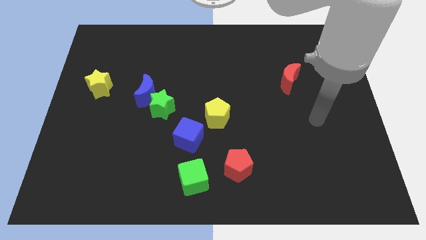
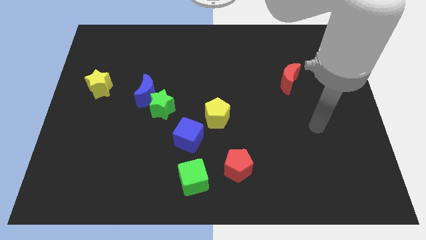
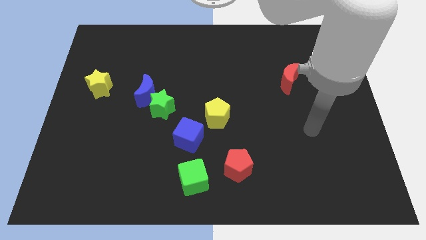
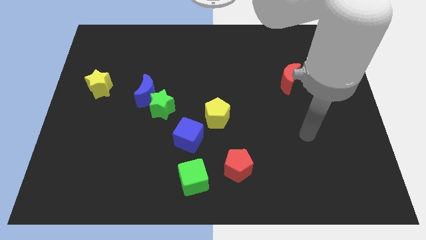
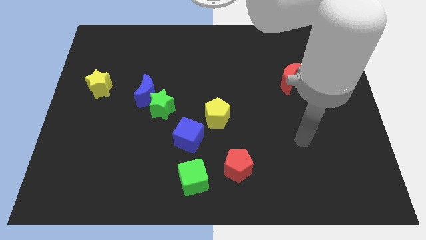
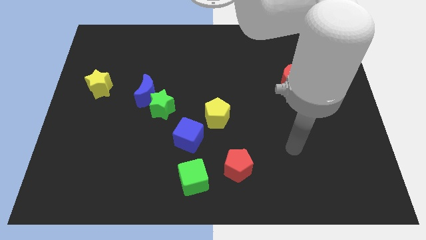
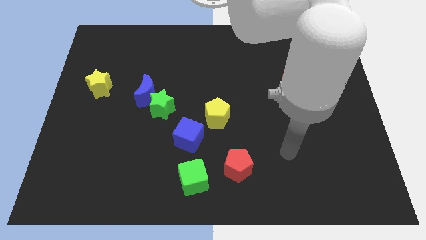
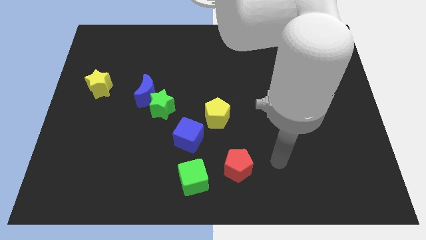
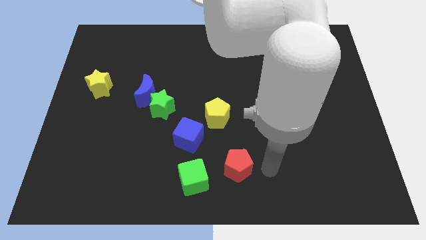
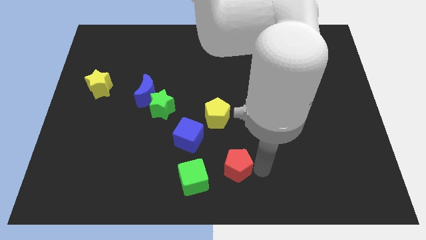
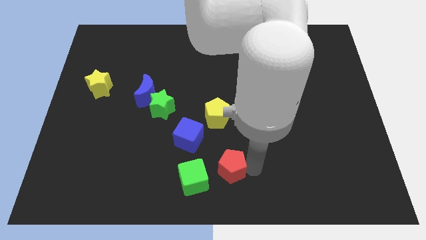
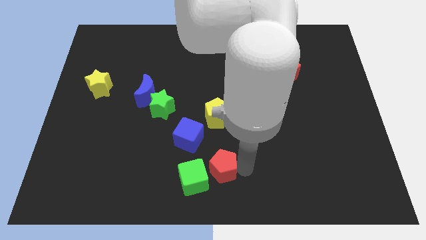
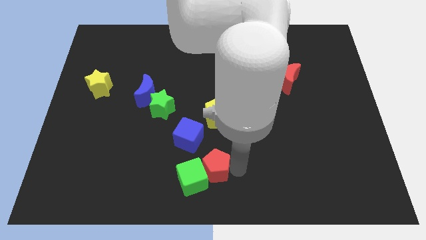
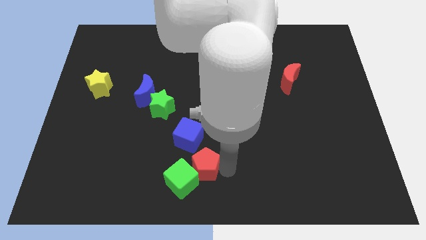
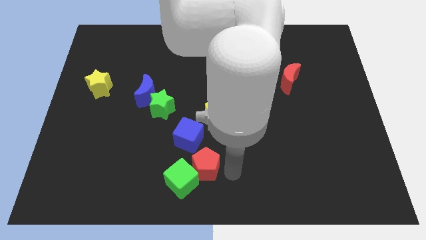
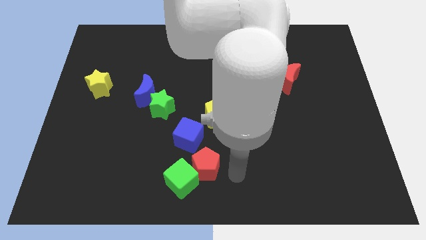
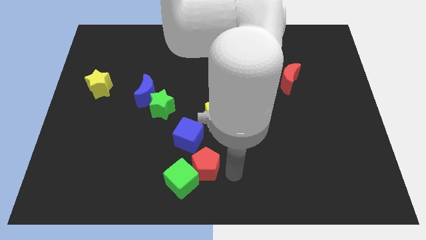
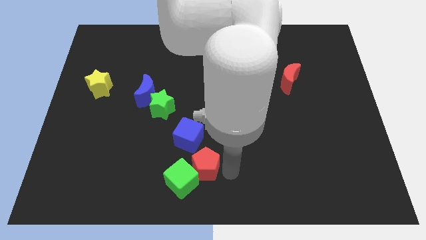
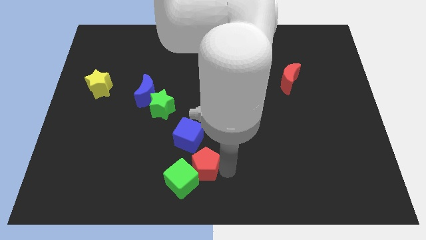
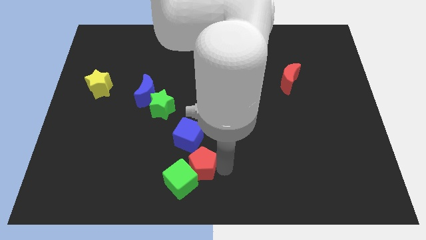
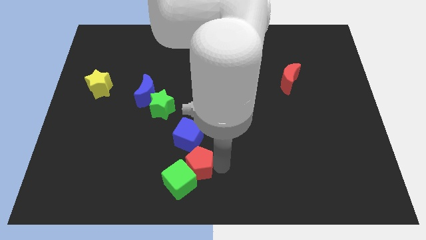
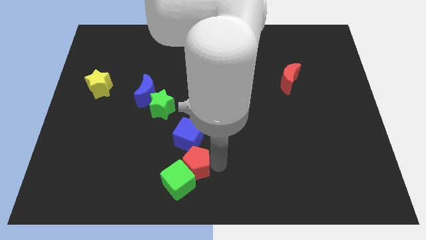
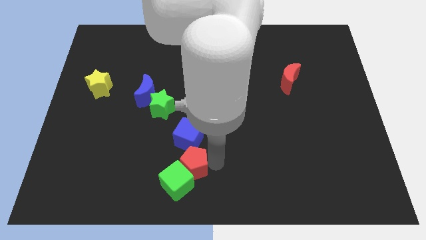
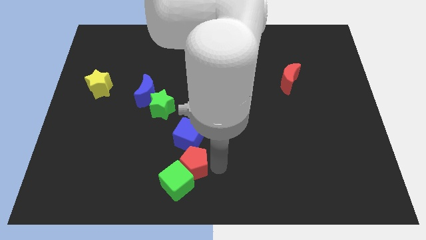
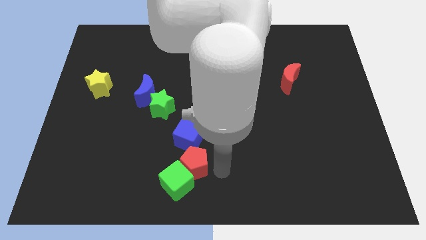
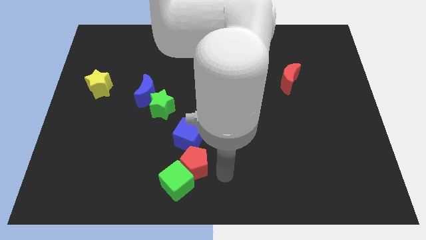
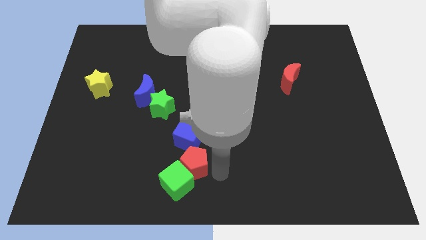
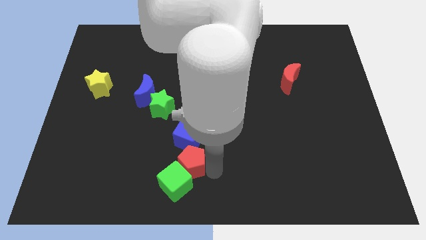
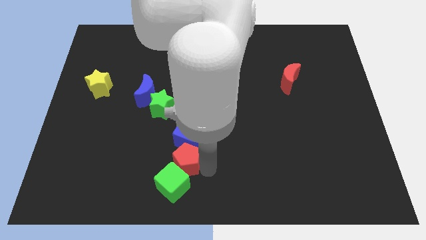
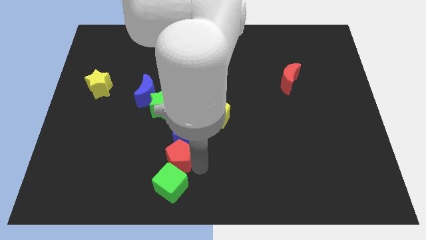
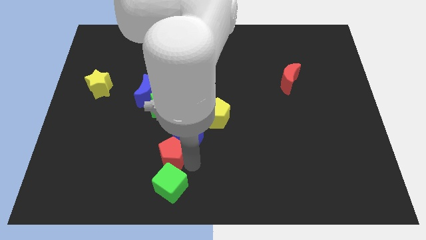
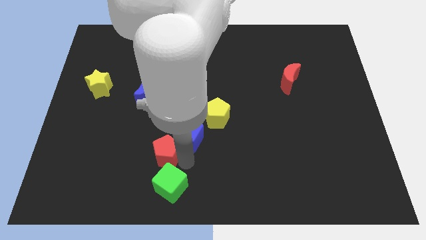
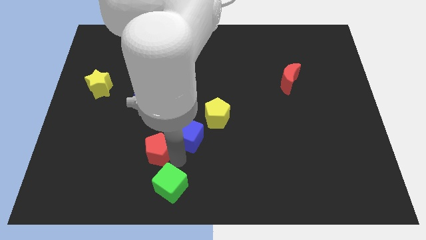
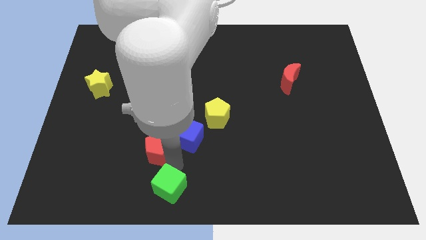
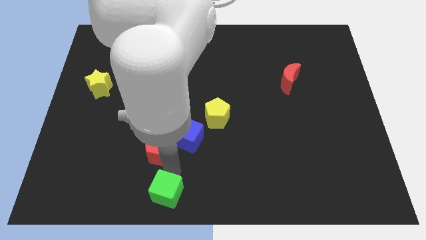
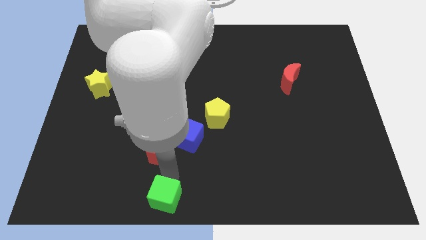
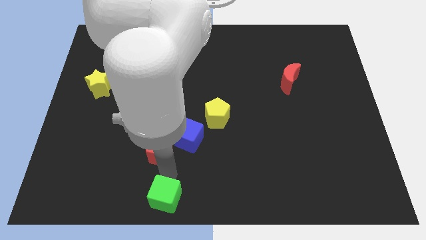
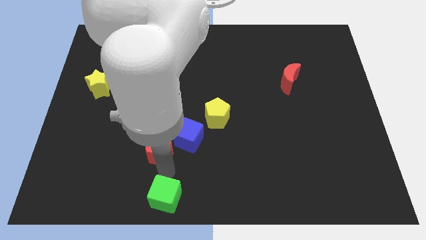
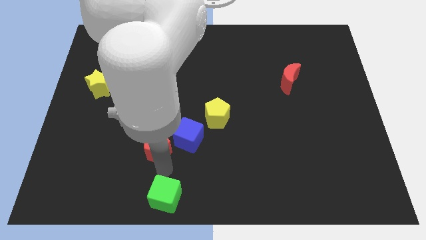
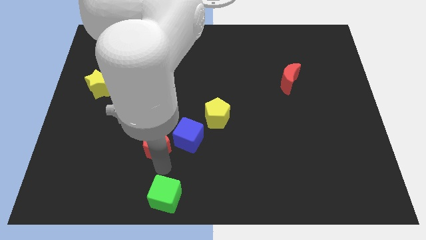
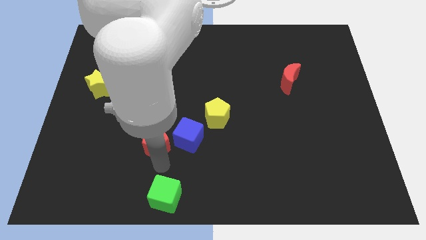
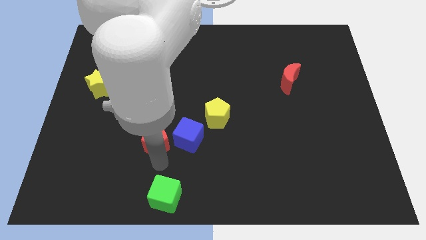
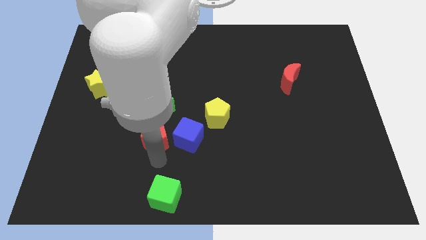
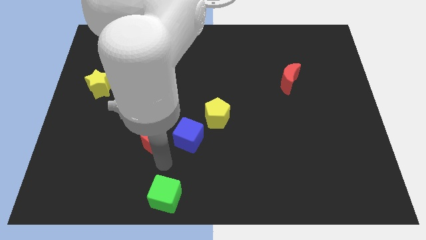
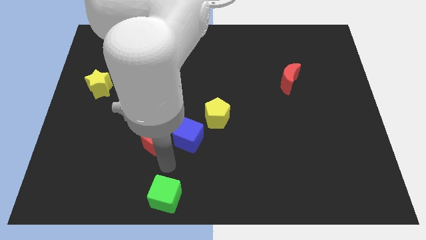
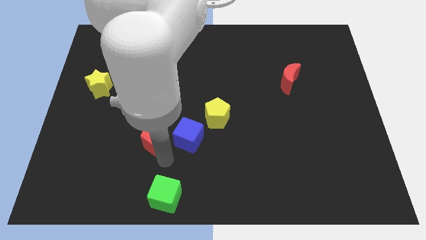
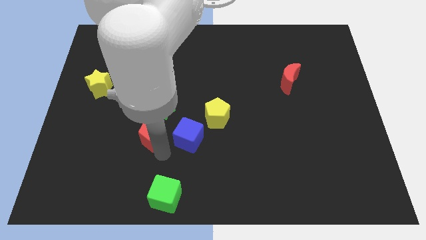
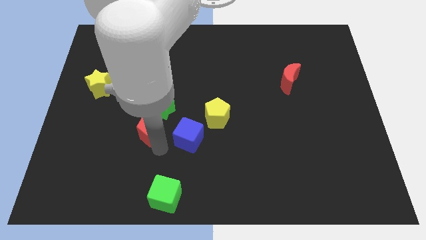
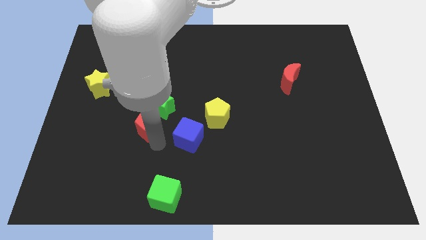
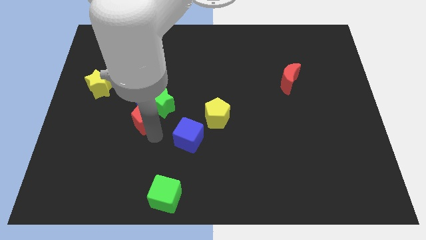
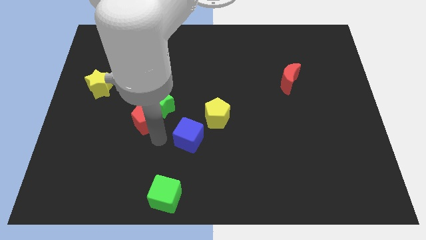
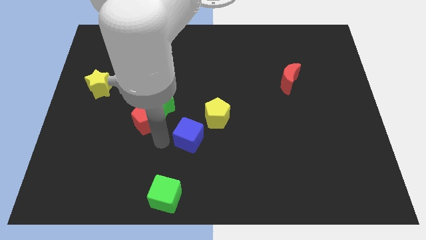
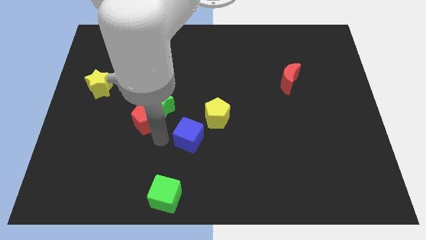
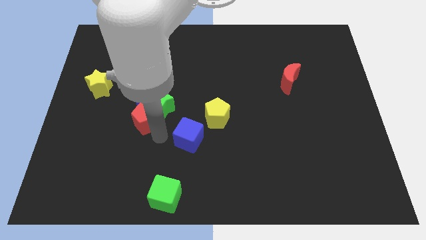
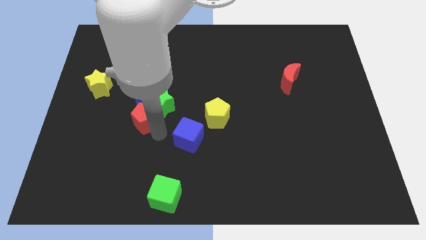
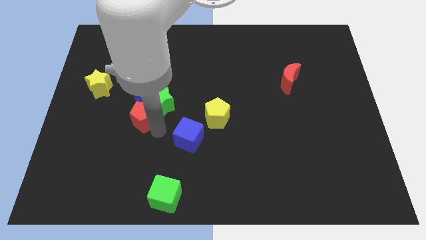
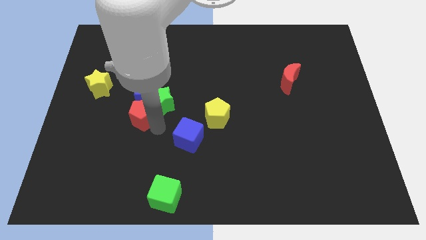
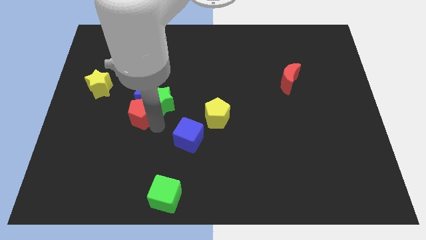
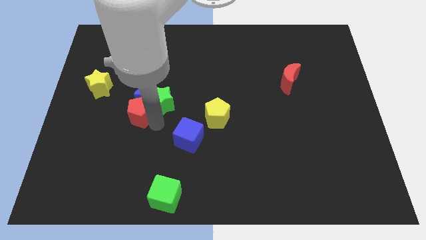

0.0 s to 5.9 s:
push the red pentagon next to the blue moon

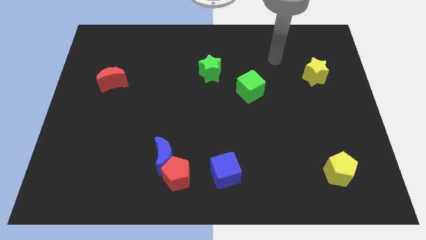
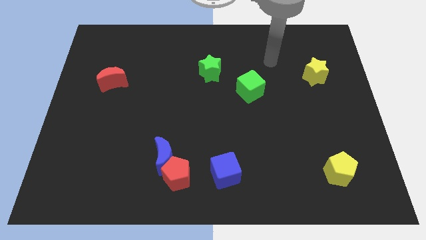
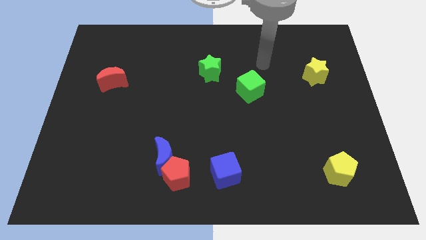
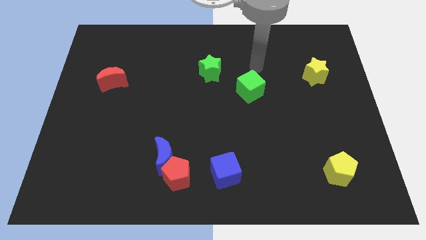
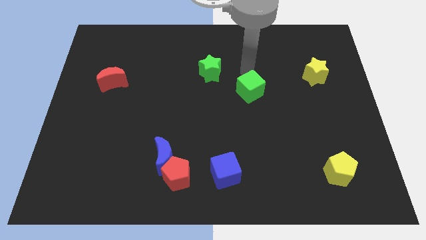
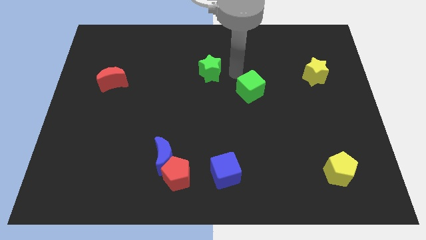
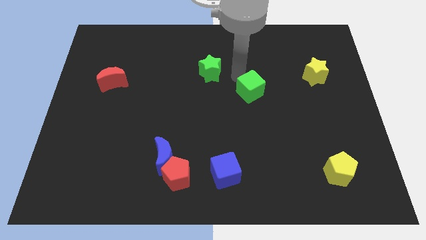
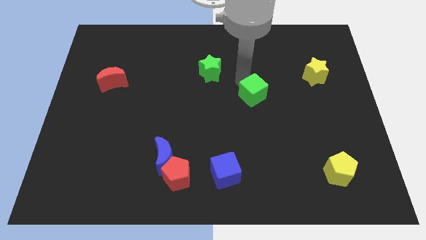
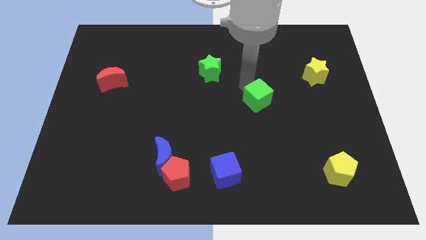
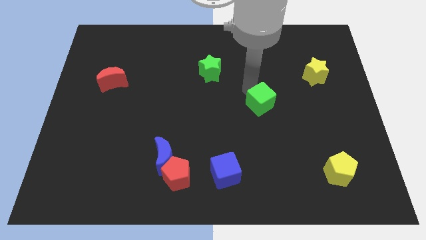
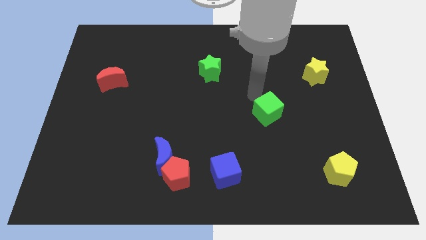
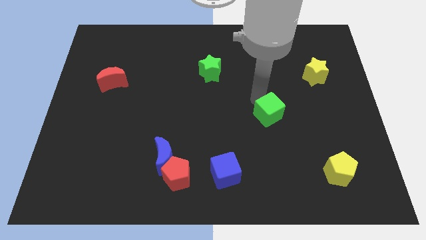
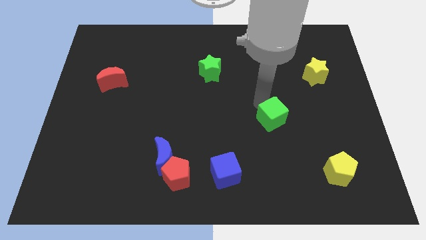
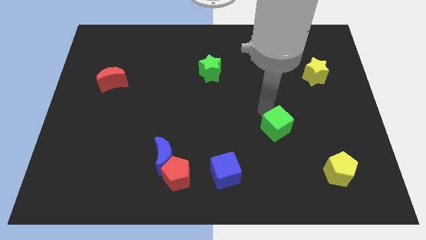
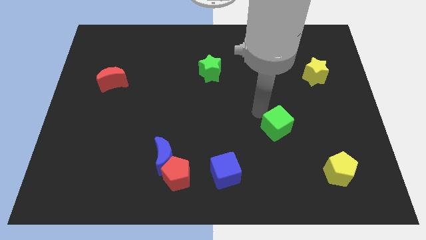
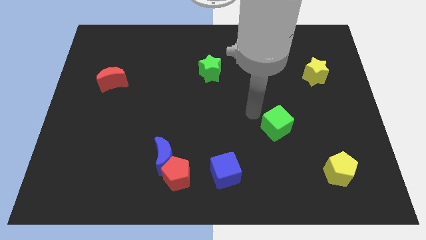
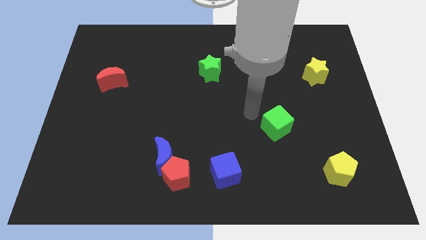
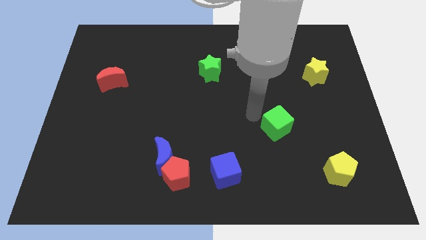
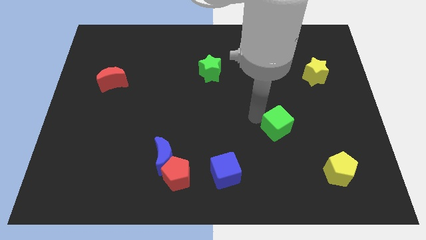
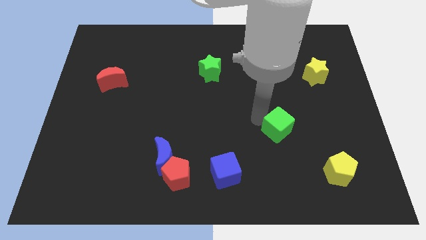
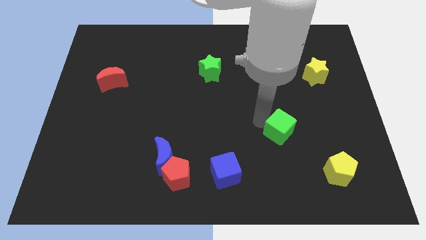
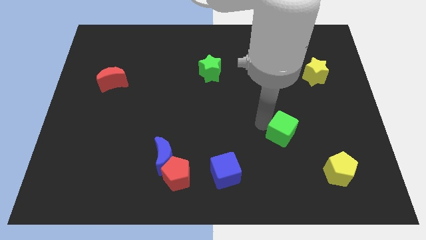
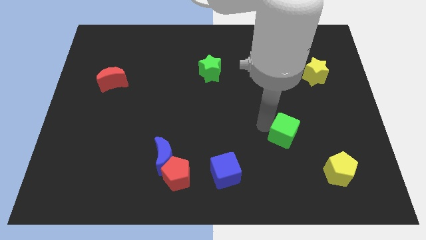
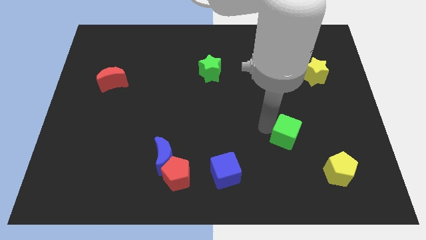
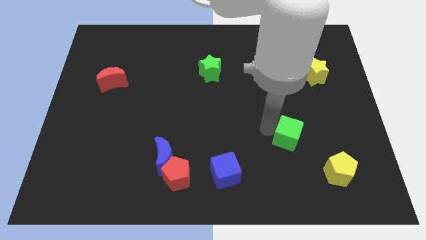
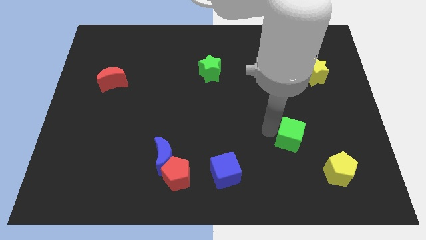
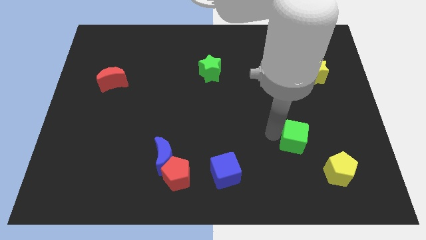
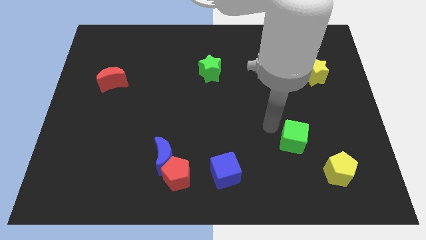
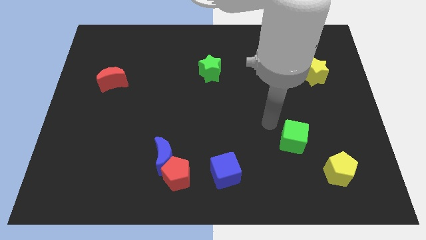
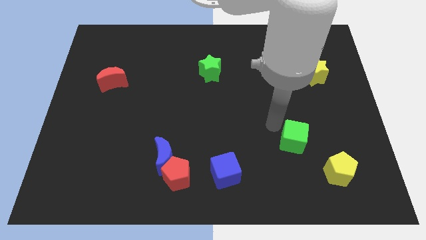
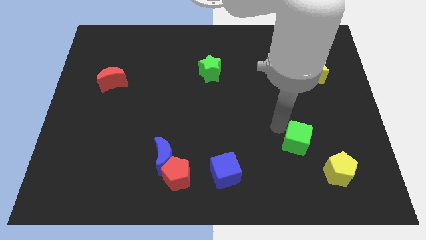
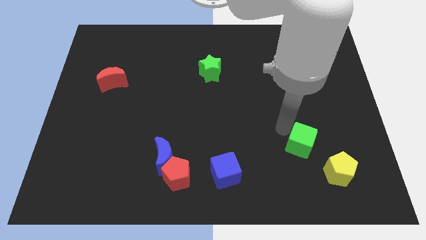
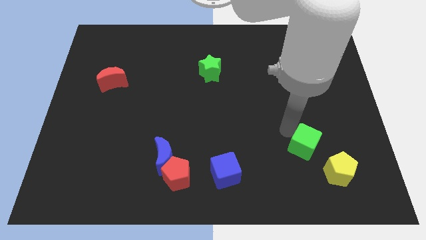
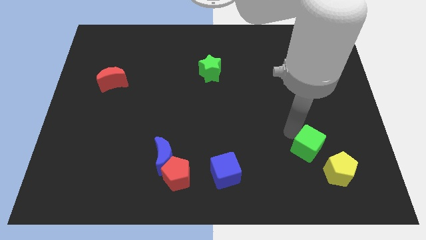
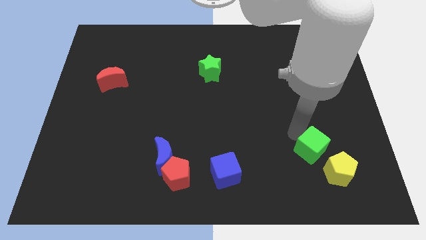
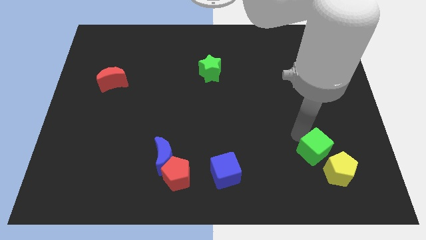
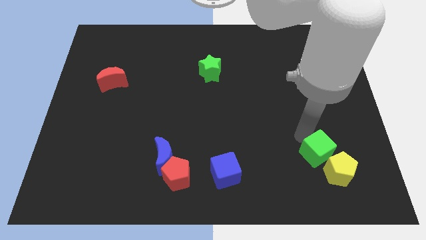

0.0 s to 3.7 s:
move the green cube close to the yellow pentagon
